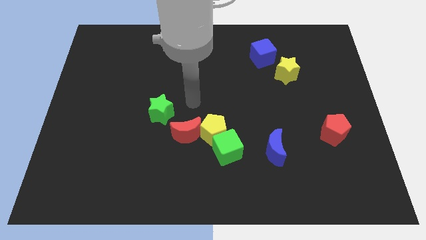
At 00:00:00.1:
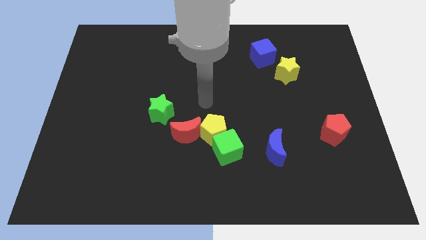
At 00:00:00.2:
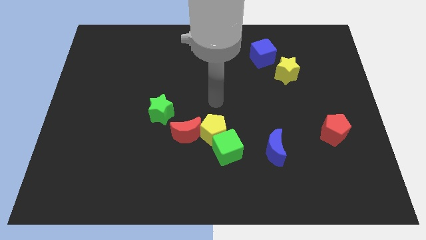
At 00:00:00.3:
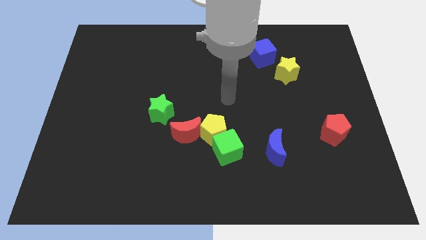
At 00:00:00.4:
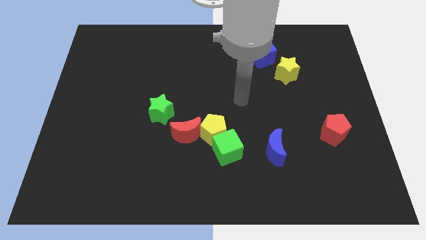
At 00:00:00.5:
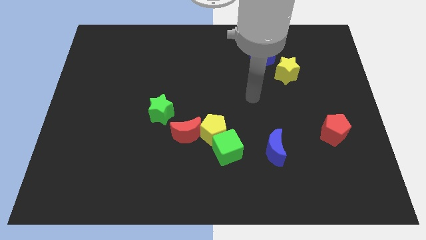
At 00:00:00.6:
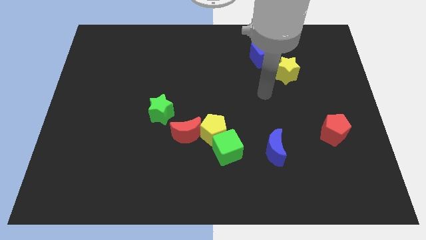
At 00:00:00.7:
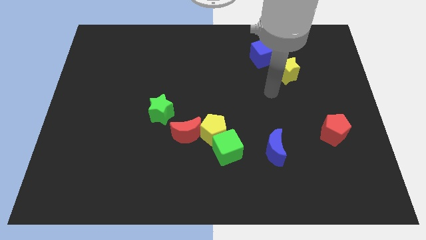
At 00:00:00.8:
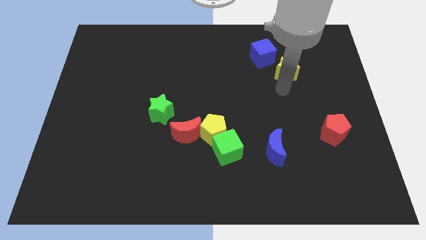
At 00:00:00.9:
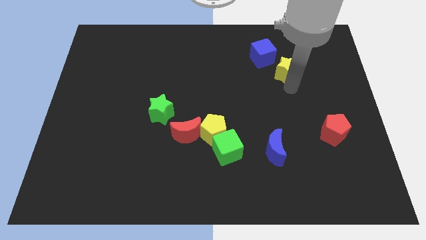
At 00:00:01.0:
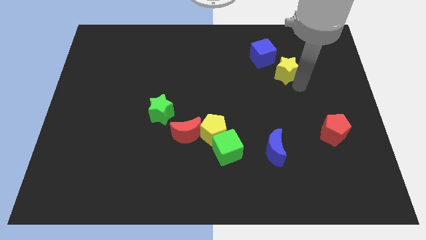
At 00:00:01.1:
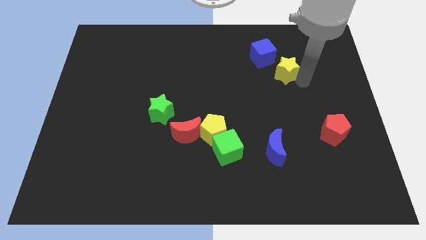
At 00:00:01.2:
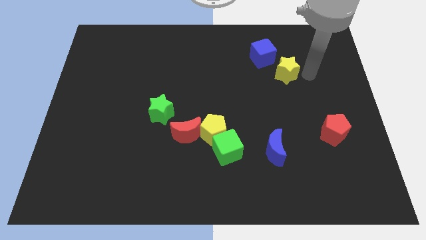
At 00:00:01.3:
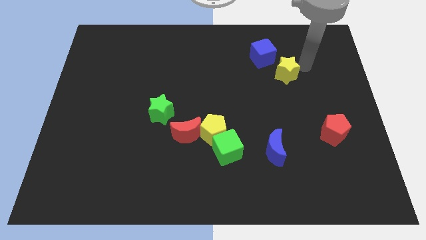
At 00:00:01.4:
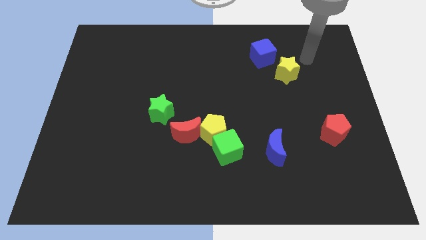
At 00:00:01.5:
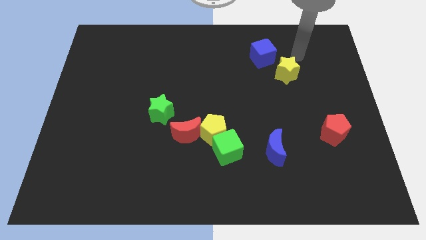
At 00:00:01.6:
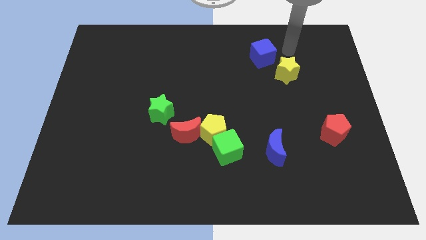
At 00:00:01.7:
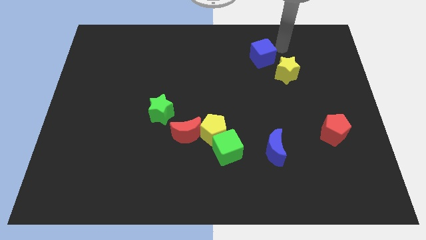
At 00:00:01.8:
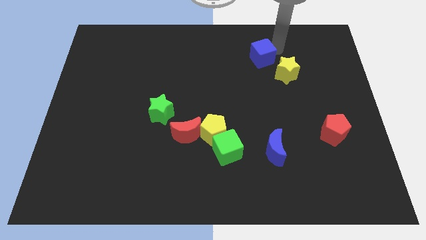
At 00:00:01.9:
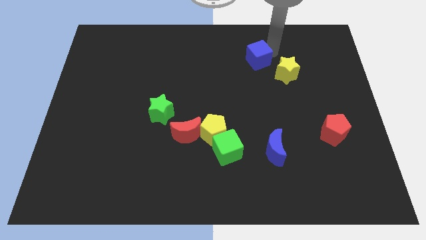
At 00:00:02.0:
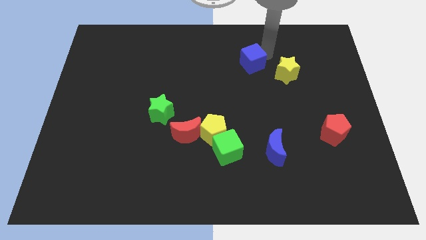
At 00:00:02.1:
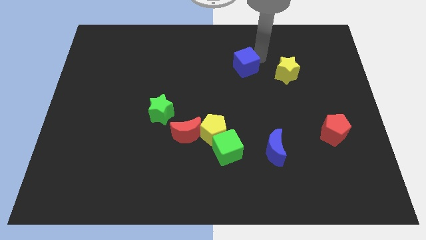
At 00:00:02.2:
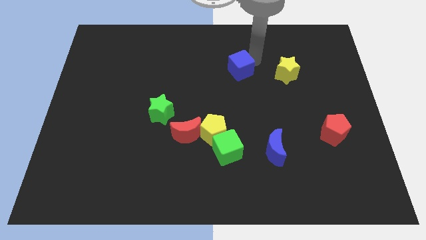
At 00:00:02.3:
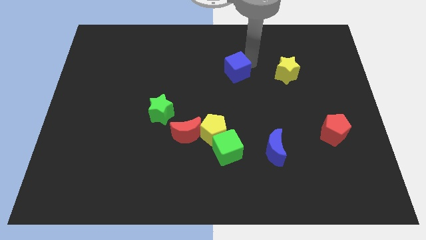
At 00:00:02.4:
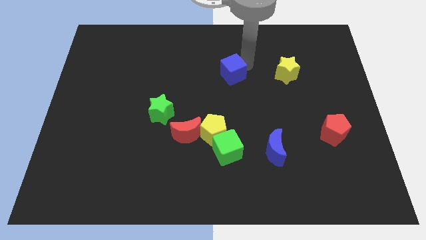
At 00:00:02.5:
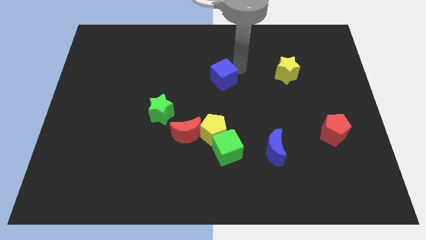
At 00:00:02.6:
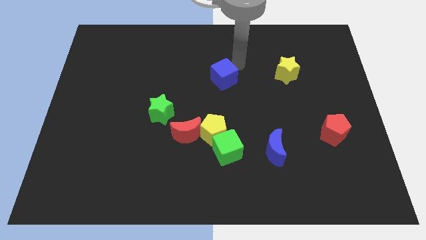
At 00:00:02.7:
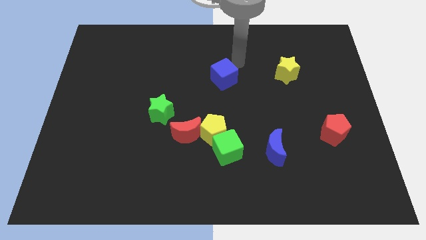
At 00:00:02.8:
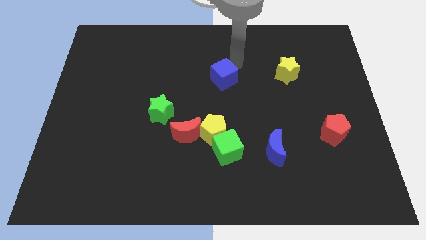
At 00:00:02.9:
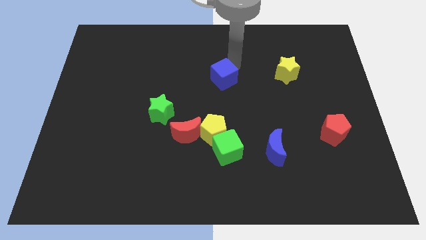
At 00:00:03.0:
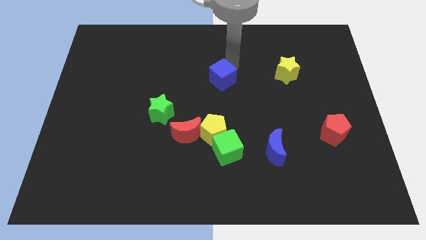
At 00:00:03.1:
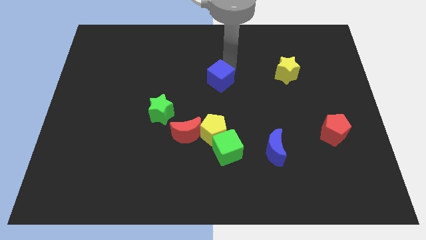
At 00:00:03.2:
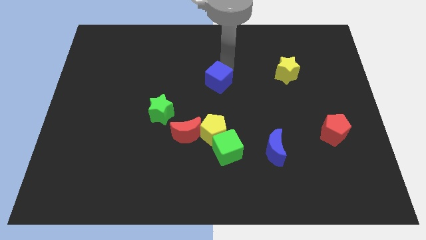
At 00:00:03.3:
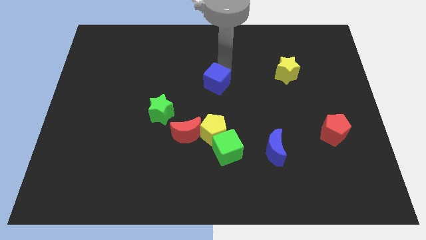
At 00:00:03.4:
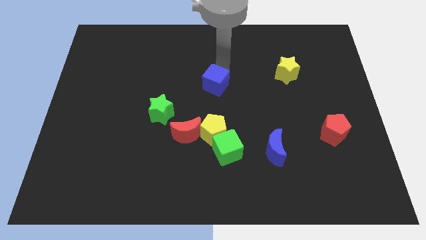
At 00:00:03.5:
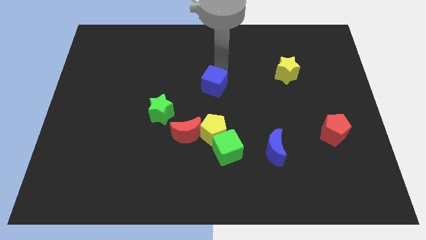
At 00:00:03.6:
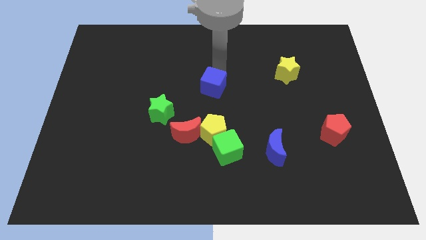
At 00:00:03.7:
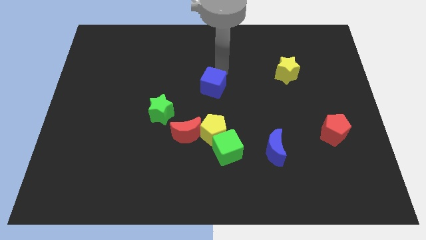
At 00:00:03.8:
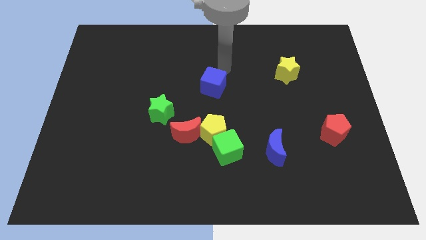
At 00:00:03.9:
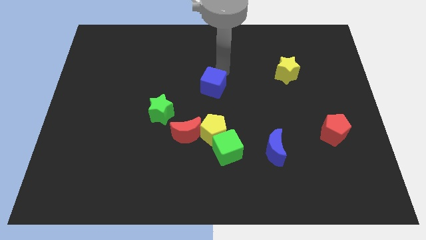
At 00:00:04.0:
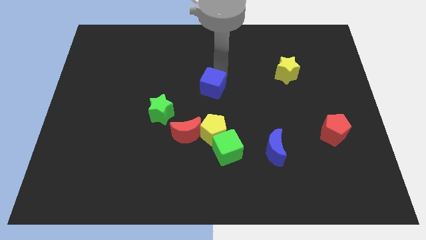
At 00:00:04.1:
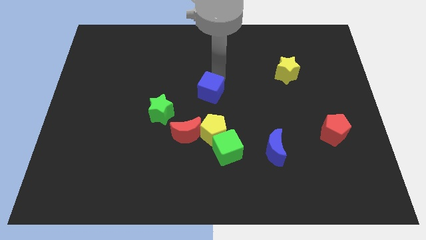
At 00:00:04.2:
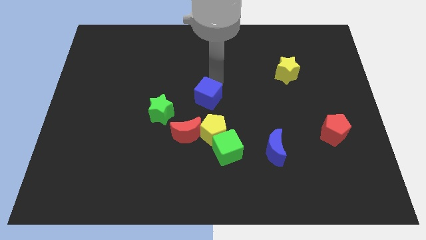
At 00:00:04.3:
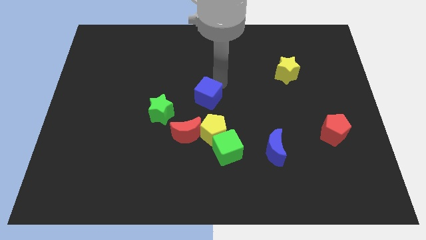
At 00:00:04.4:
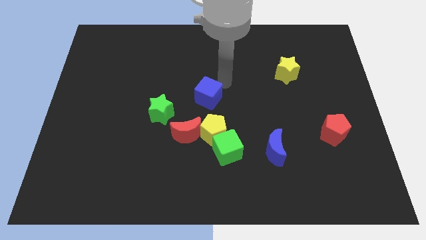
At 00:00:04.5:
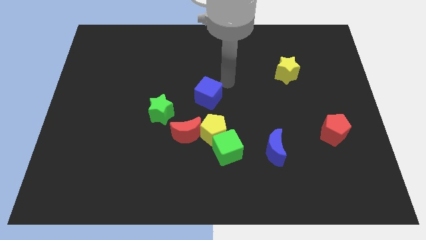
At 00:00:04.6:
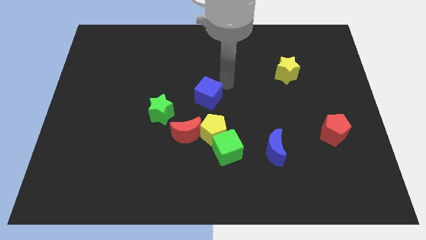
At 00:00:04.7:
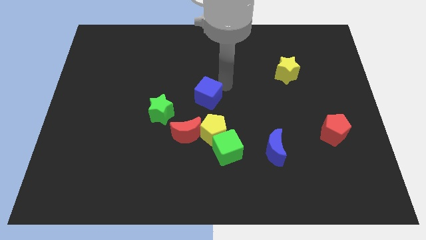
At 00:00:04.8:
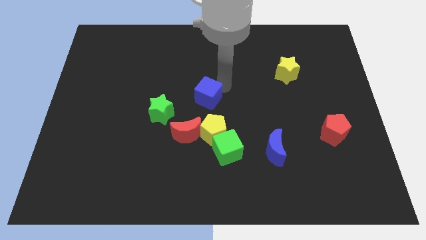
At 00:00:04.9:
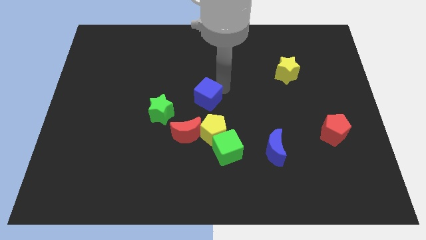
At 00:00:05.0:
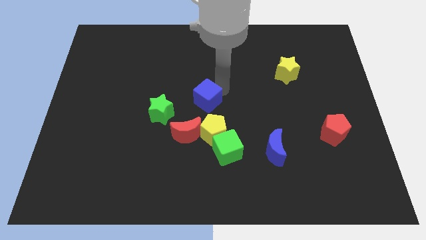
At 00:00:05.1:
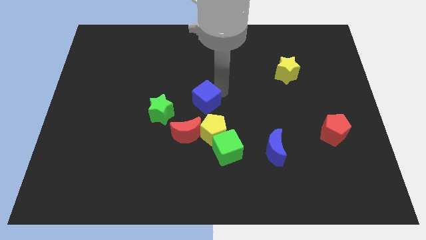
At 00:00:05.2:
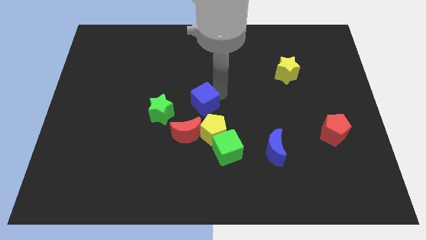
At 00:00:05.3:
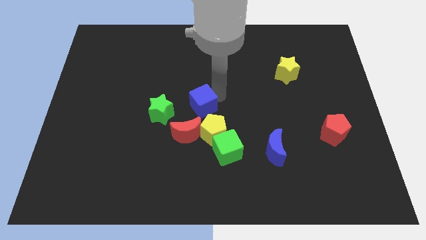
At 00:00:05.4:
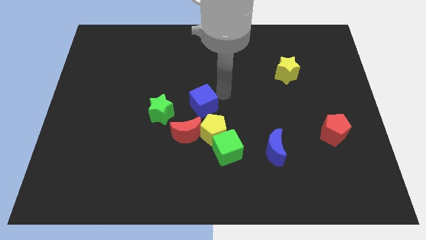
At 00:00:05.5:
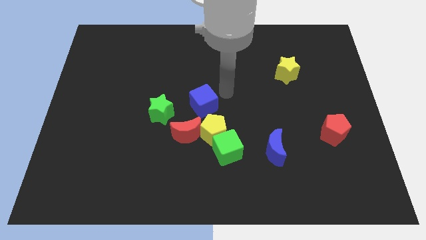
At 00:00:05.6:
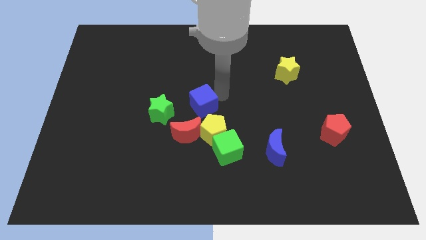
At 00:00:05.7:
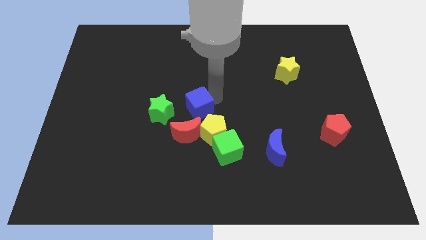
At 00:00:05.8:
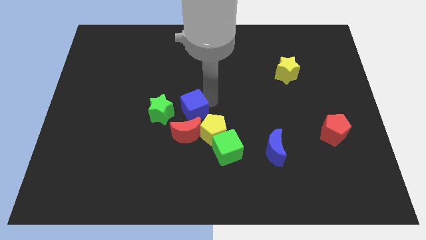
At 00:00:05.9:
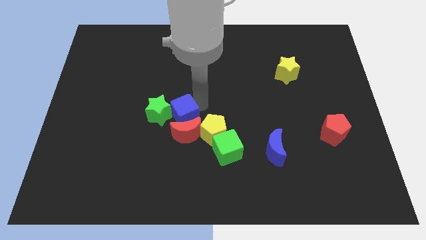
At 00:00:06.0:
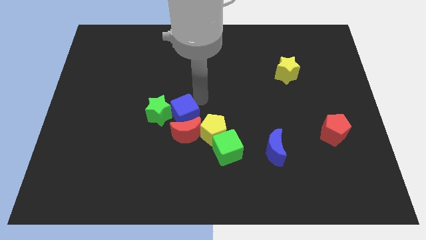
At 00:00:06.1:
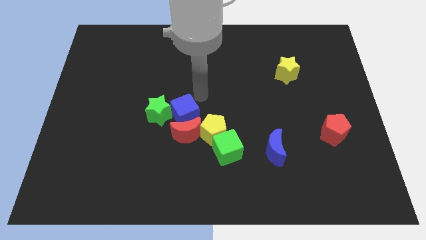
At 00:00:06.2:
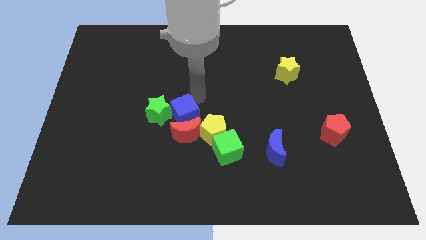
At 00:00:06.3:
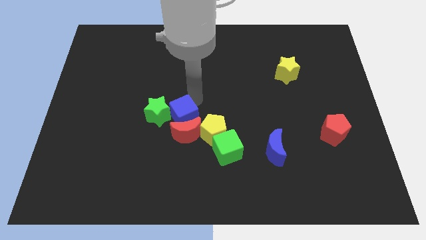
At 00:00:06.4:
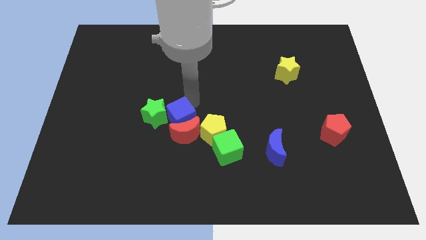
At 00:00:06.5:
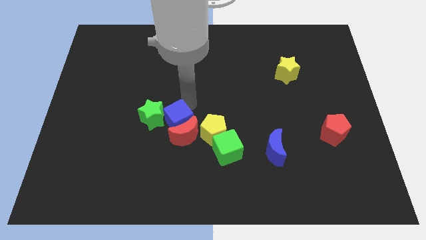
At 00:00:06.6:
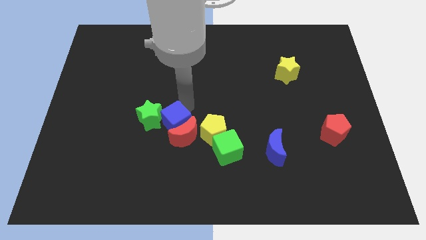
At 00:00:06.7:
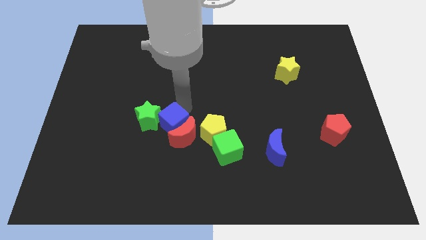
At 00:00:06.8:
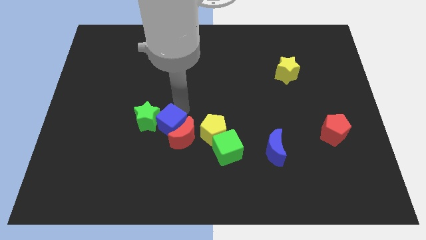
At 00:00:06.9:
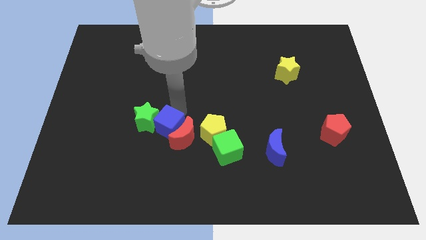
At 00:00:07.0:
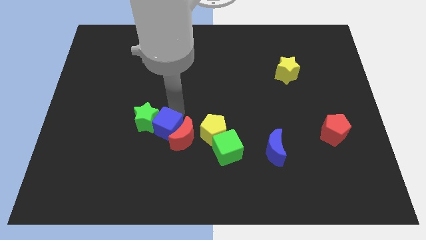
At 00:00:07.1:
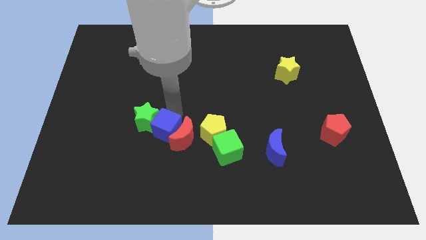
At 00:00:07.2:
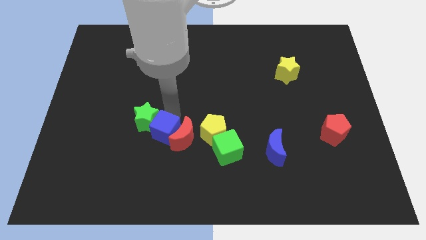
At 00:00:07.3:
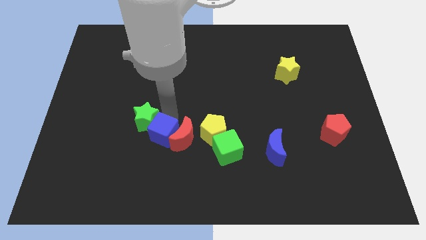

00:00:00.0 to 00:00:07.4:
slide the blue cube left of the green cube
